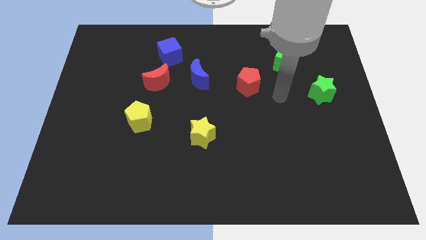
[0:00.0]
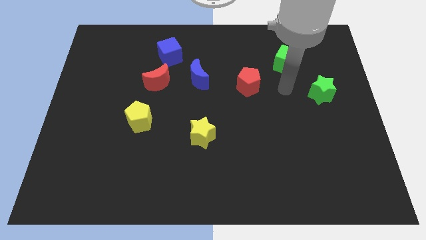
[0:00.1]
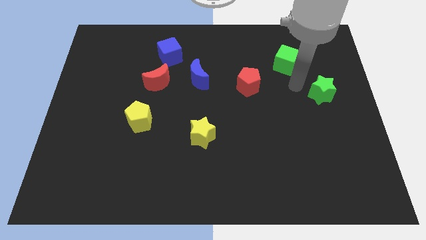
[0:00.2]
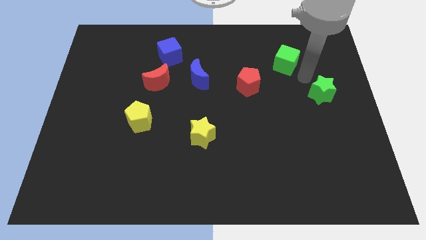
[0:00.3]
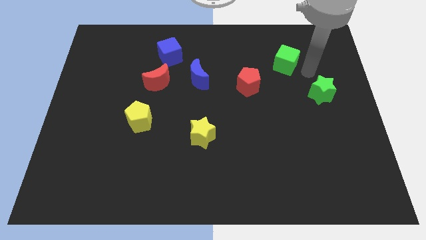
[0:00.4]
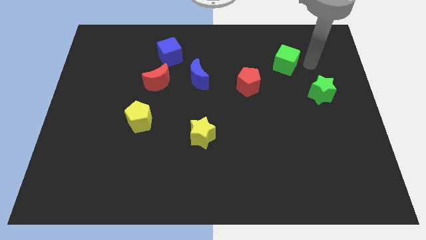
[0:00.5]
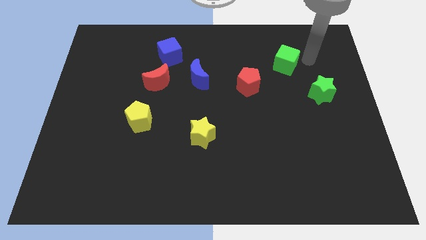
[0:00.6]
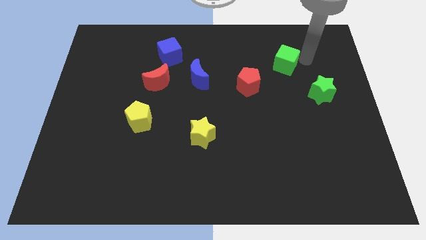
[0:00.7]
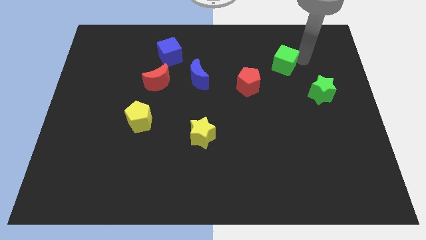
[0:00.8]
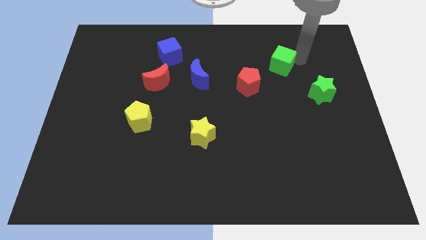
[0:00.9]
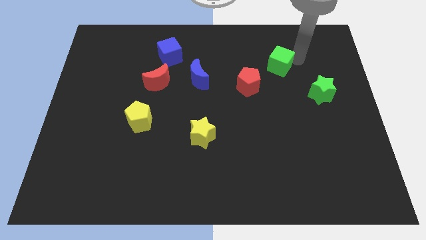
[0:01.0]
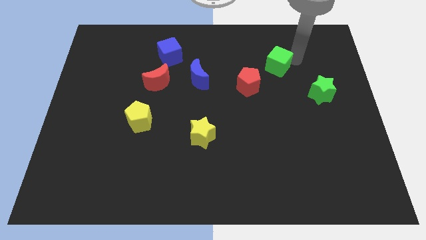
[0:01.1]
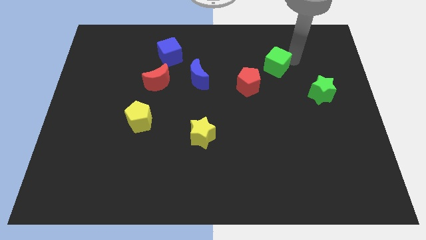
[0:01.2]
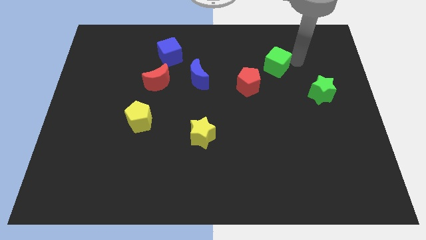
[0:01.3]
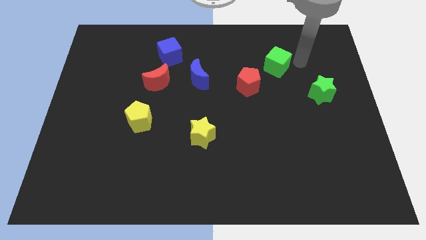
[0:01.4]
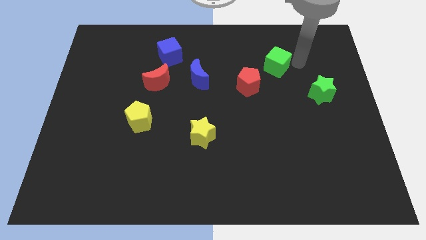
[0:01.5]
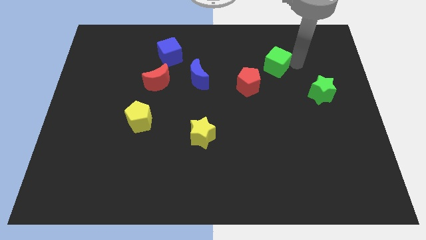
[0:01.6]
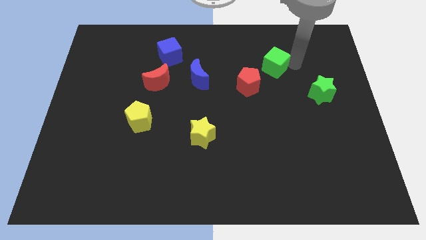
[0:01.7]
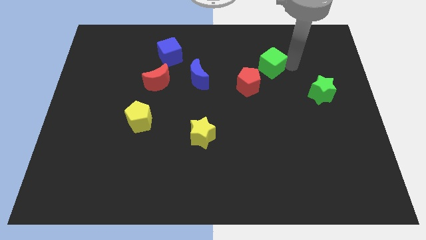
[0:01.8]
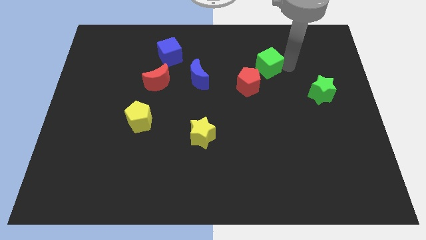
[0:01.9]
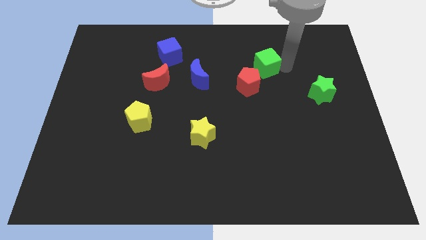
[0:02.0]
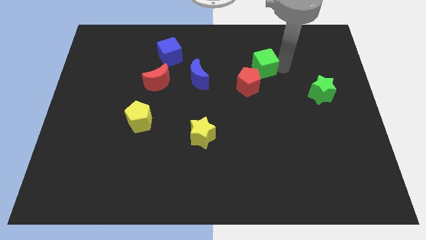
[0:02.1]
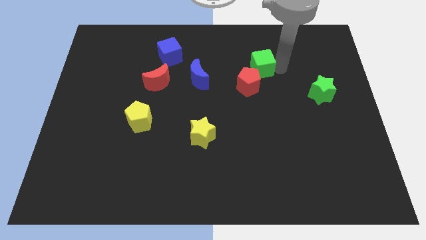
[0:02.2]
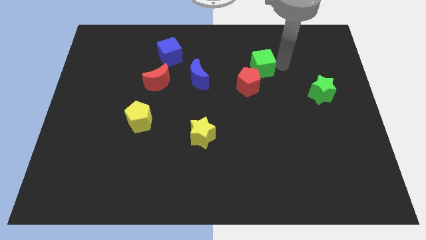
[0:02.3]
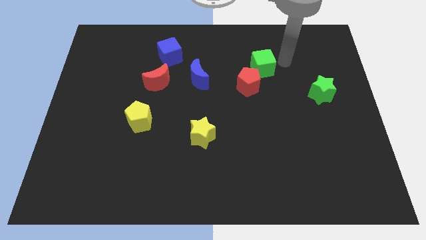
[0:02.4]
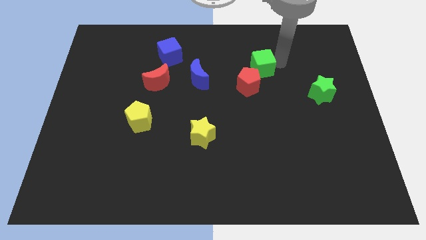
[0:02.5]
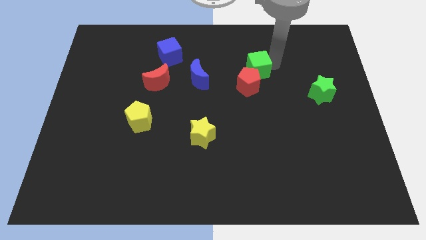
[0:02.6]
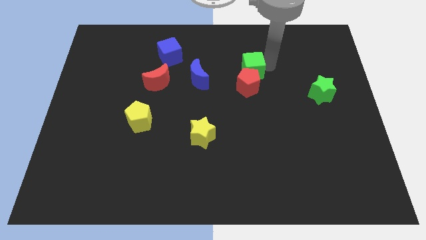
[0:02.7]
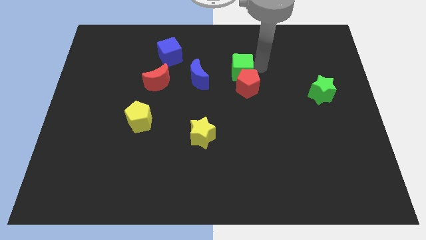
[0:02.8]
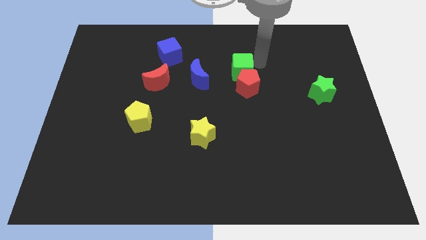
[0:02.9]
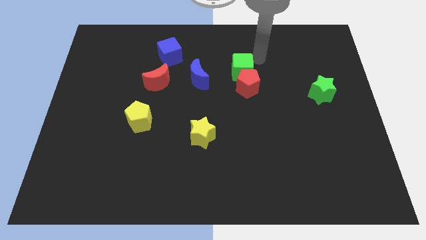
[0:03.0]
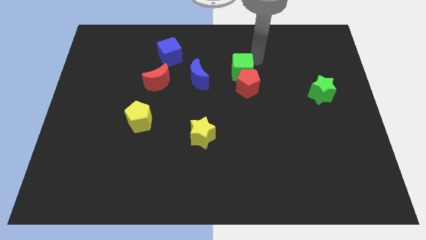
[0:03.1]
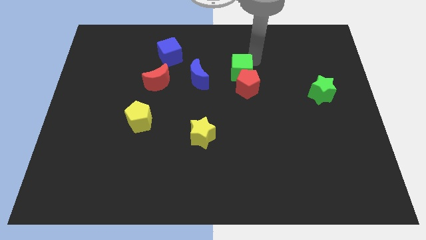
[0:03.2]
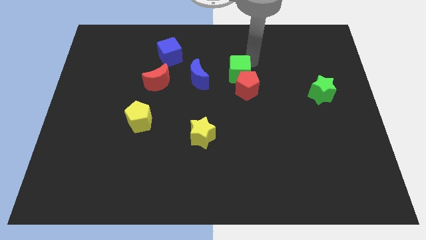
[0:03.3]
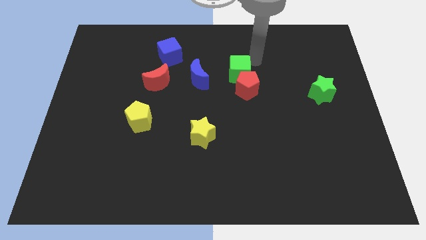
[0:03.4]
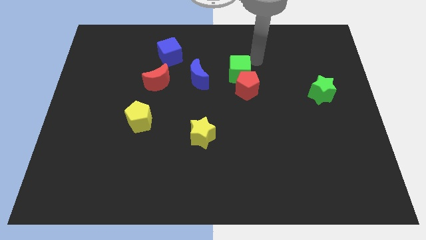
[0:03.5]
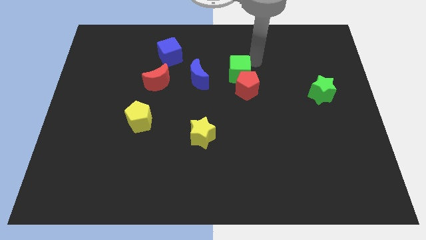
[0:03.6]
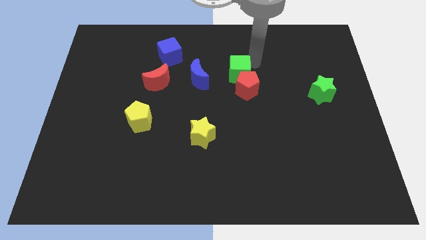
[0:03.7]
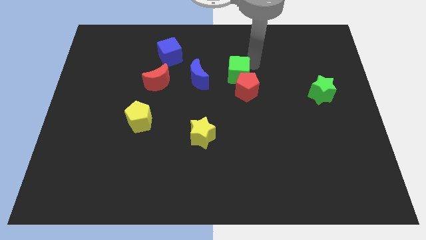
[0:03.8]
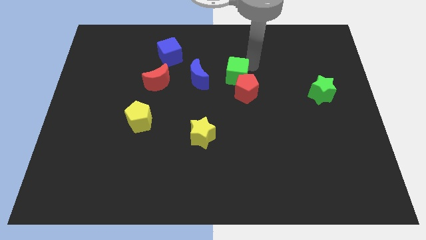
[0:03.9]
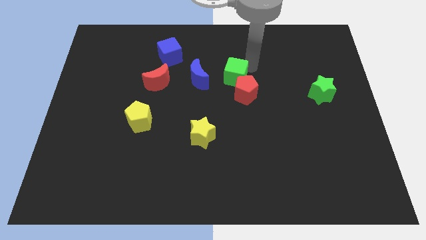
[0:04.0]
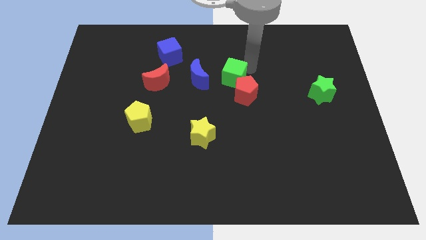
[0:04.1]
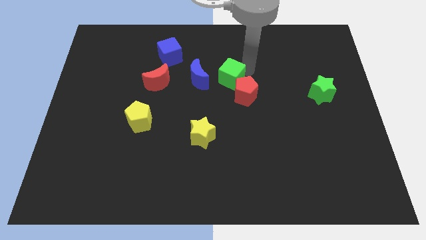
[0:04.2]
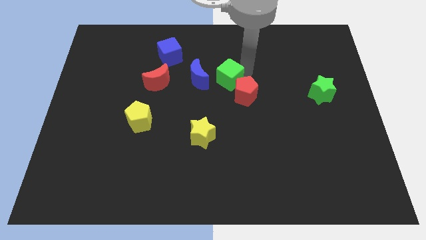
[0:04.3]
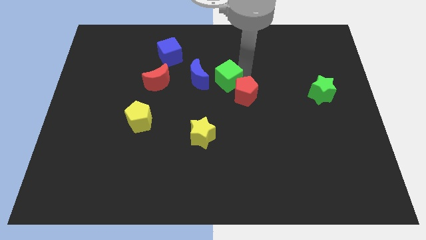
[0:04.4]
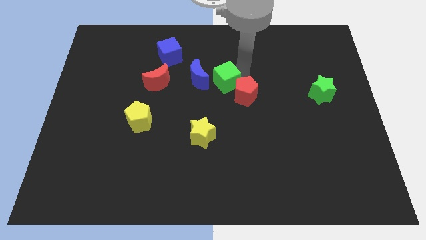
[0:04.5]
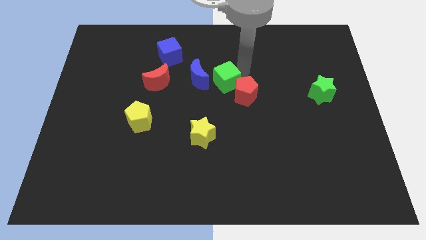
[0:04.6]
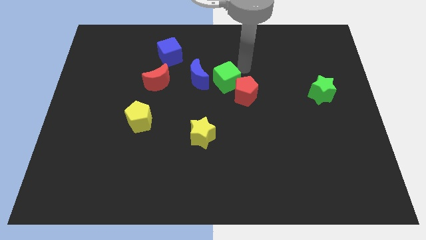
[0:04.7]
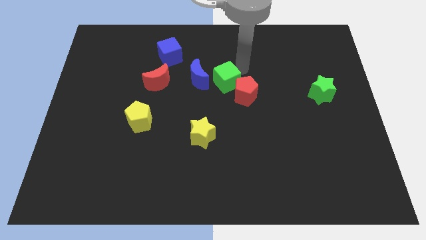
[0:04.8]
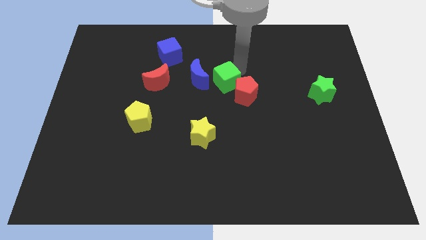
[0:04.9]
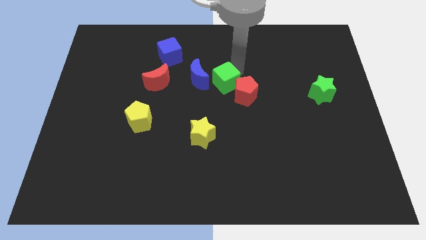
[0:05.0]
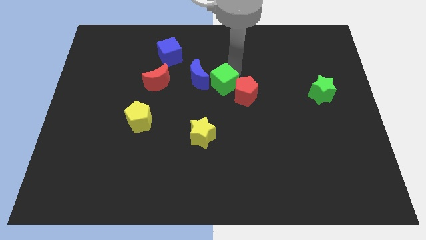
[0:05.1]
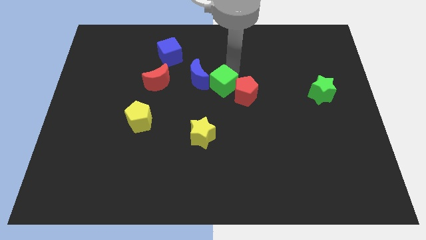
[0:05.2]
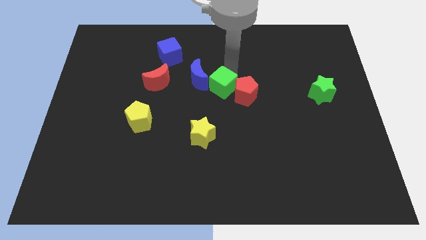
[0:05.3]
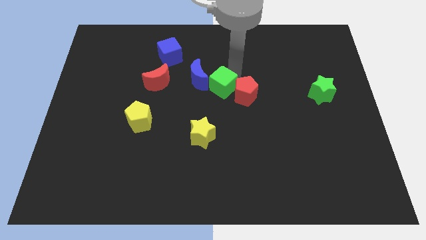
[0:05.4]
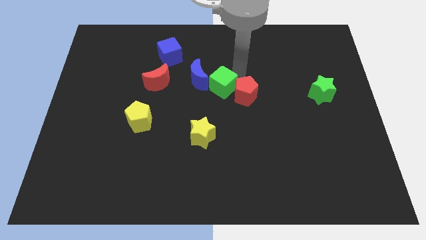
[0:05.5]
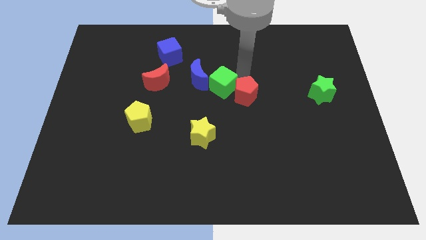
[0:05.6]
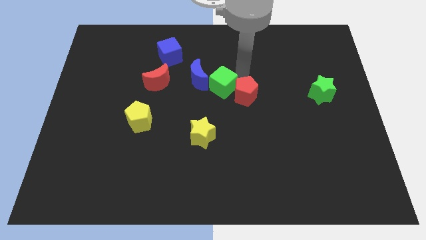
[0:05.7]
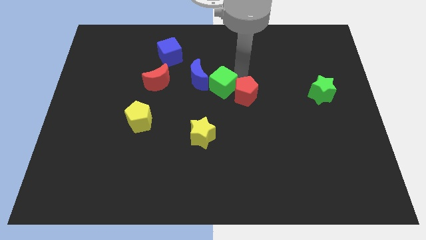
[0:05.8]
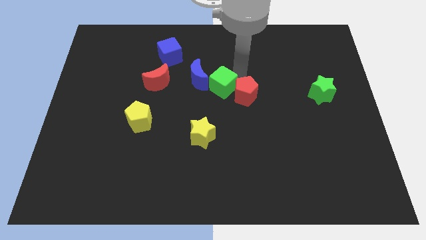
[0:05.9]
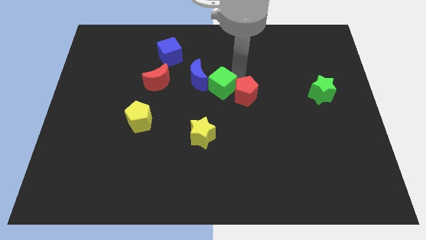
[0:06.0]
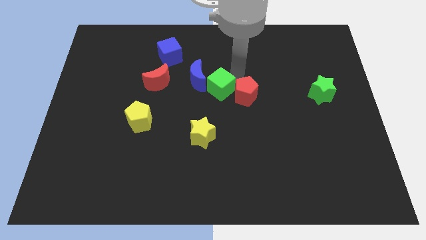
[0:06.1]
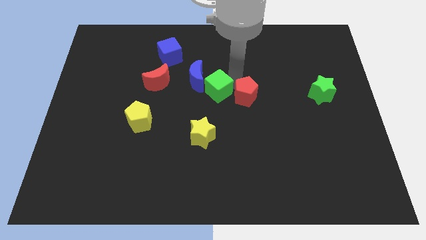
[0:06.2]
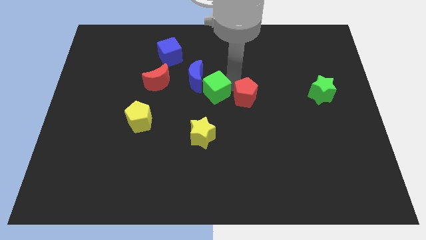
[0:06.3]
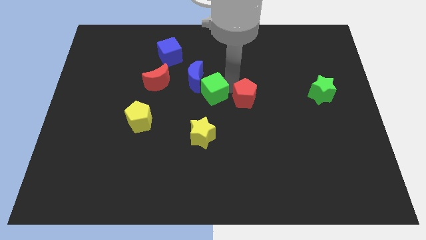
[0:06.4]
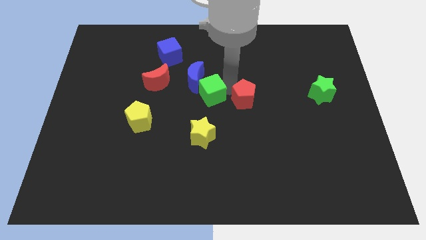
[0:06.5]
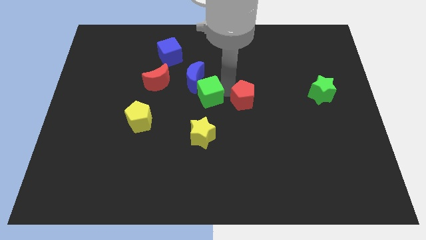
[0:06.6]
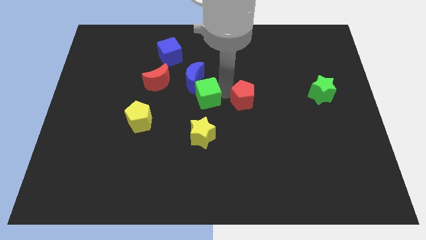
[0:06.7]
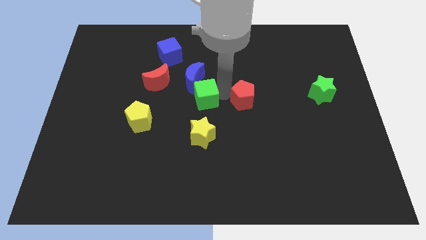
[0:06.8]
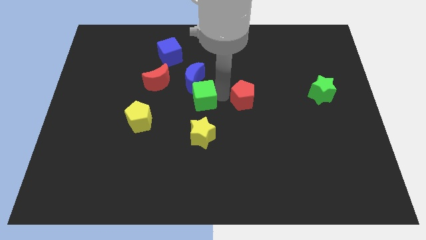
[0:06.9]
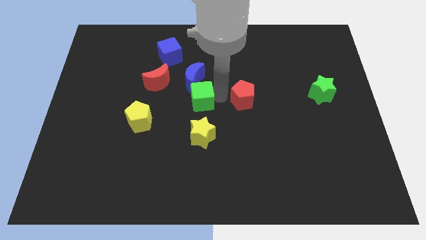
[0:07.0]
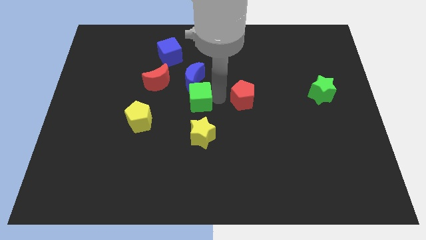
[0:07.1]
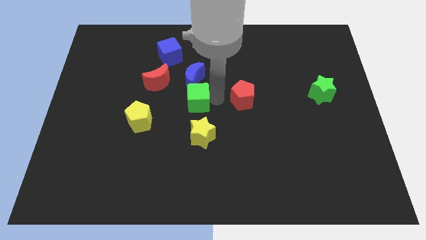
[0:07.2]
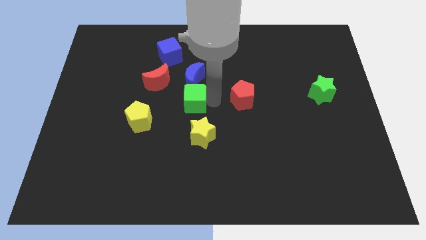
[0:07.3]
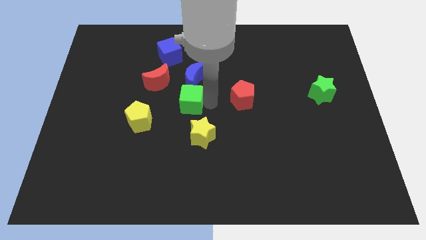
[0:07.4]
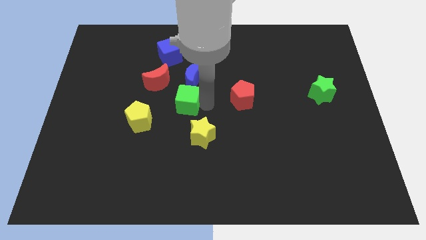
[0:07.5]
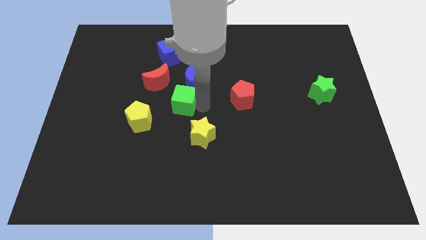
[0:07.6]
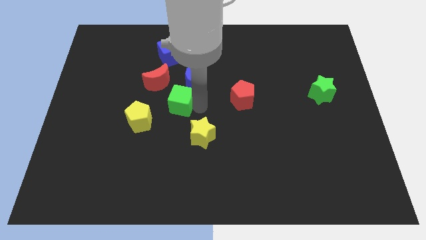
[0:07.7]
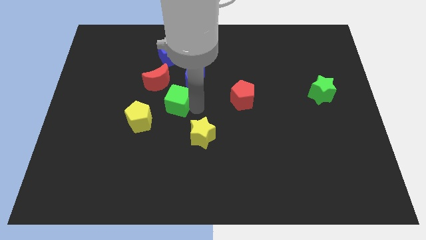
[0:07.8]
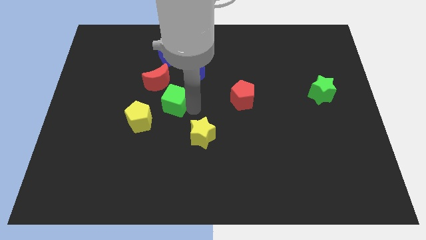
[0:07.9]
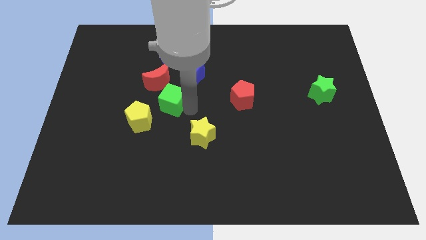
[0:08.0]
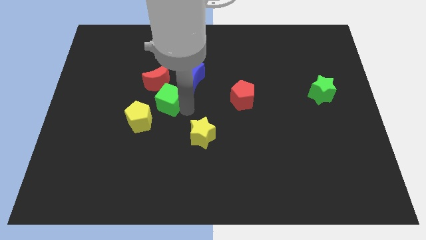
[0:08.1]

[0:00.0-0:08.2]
slide the green cube to the bottom side of the blue cube
